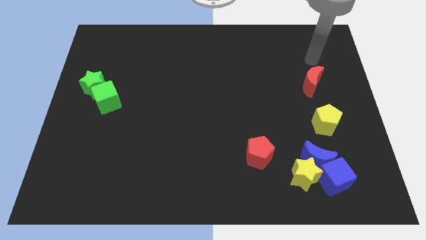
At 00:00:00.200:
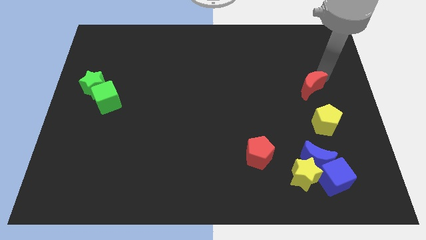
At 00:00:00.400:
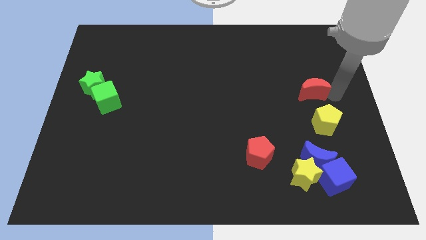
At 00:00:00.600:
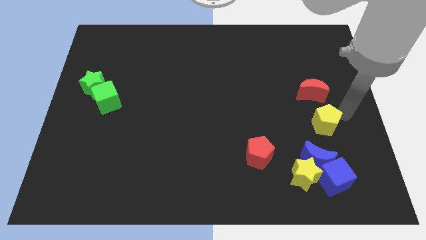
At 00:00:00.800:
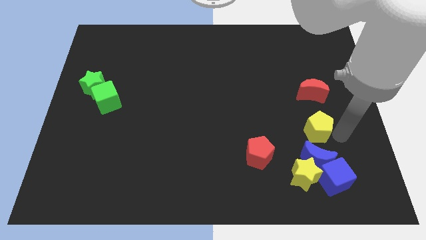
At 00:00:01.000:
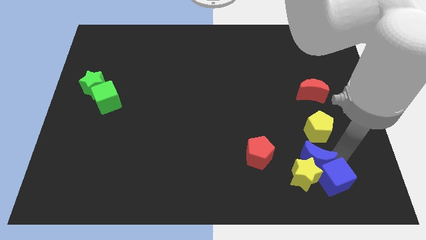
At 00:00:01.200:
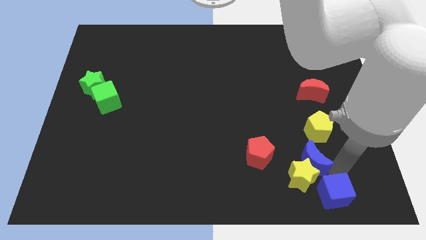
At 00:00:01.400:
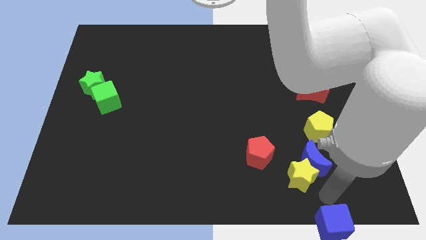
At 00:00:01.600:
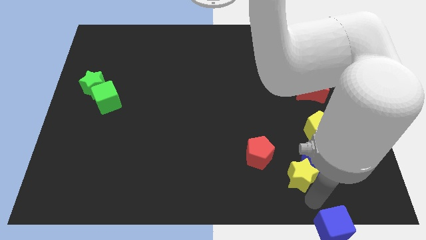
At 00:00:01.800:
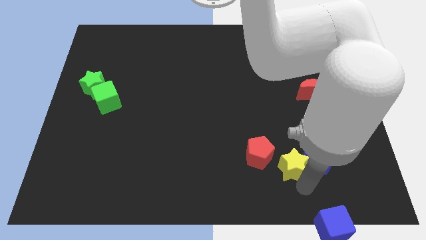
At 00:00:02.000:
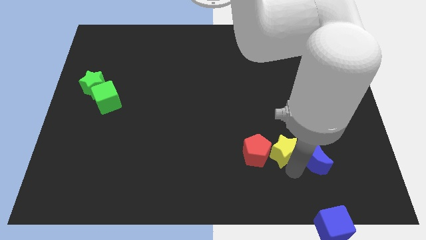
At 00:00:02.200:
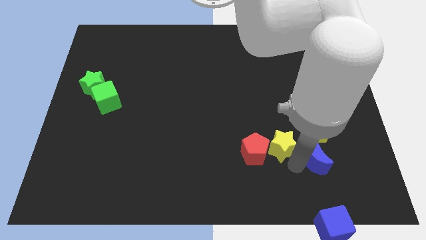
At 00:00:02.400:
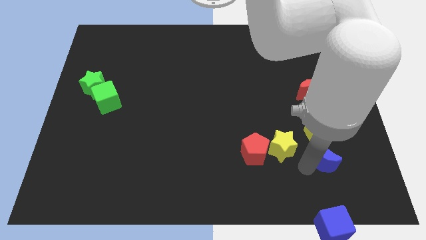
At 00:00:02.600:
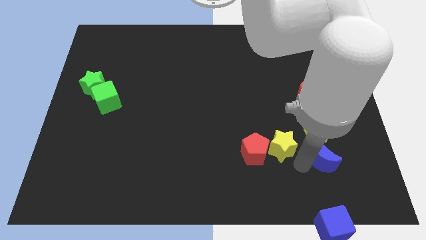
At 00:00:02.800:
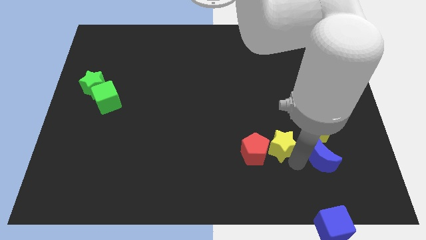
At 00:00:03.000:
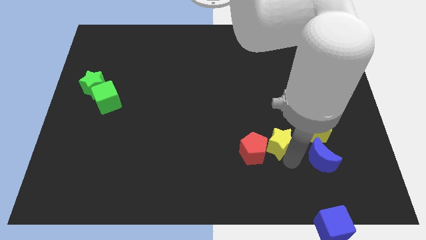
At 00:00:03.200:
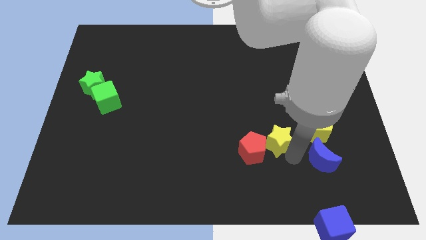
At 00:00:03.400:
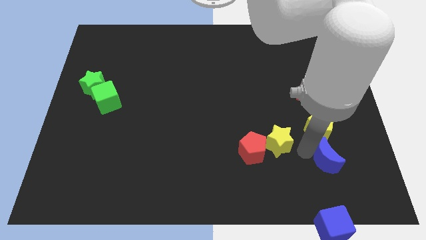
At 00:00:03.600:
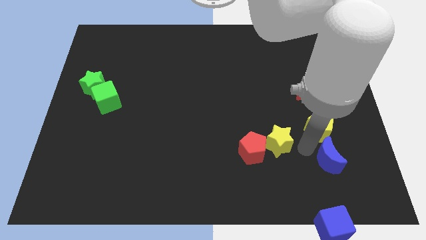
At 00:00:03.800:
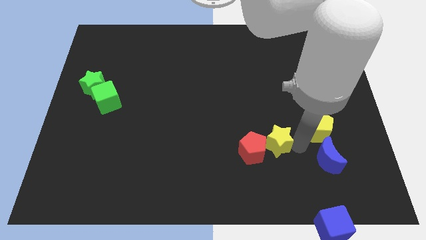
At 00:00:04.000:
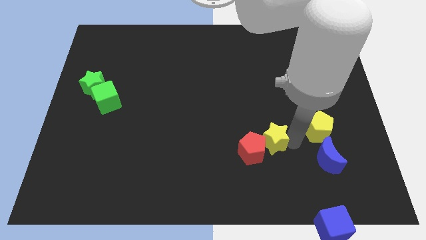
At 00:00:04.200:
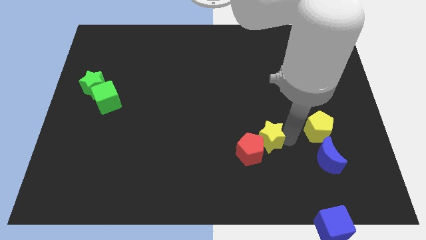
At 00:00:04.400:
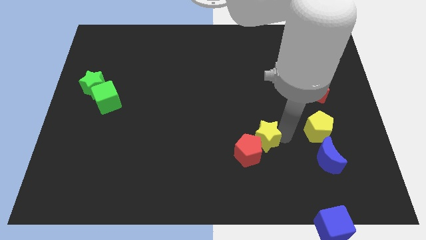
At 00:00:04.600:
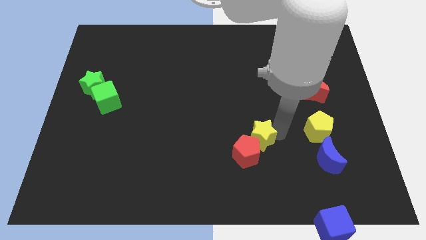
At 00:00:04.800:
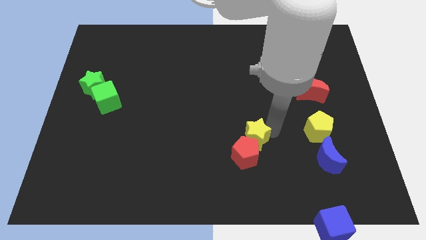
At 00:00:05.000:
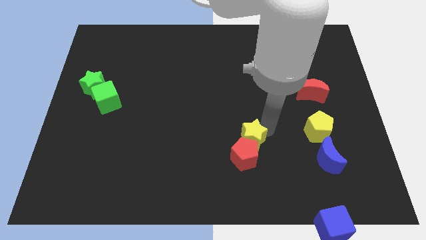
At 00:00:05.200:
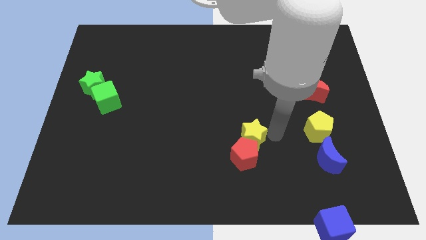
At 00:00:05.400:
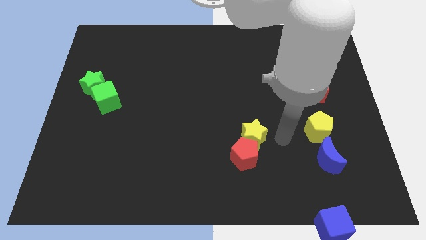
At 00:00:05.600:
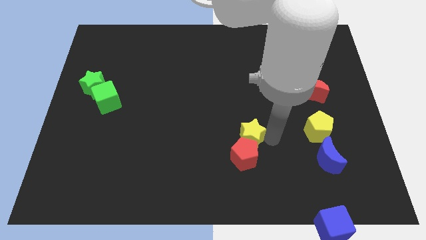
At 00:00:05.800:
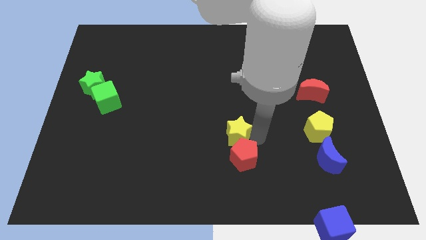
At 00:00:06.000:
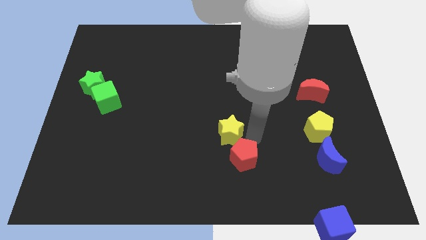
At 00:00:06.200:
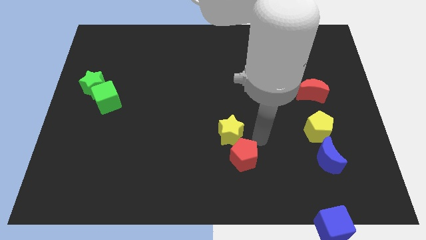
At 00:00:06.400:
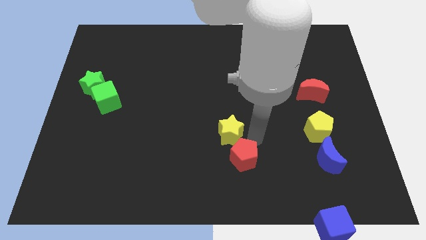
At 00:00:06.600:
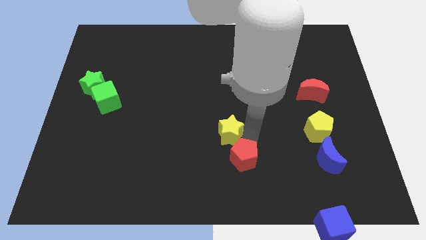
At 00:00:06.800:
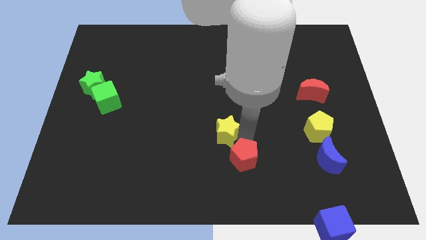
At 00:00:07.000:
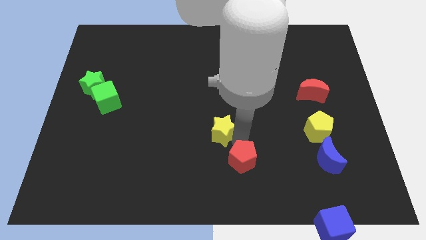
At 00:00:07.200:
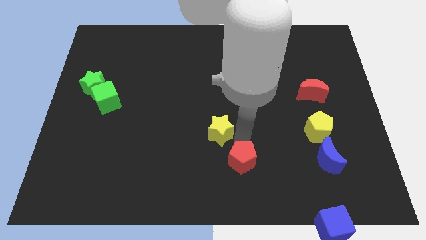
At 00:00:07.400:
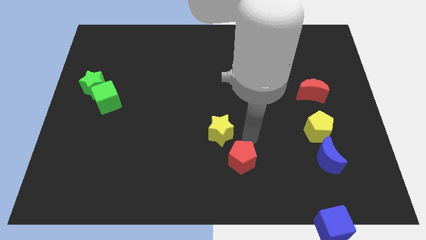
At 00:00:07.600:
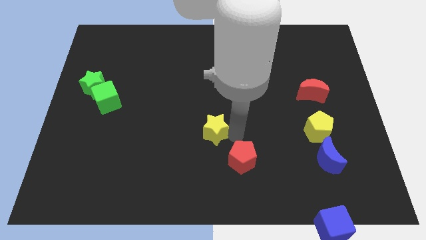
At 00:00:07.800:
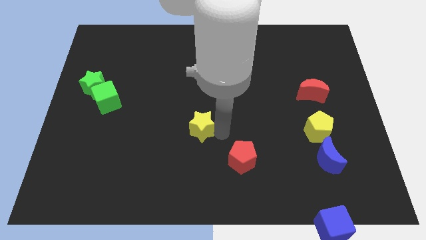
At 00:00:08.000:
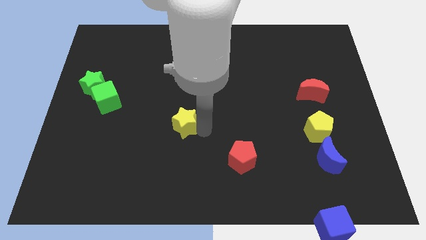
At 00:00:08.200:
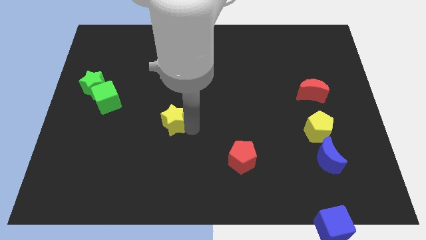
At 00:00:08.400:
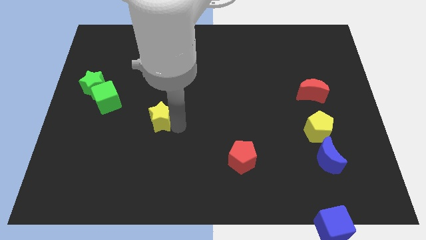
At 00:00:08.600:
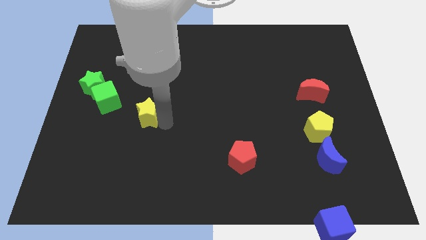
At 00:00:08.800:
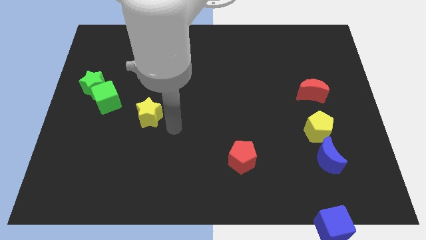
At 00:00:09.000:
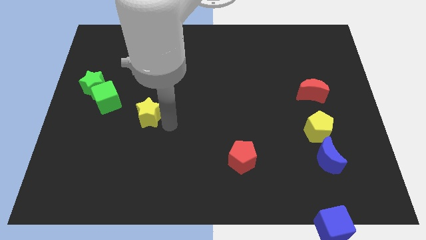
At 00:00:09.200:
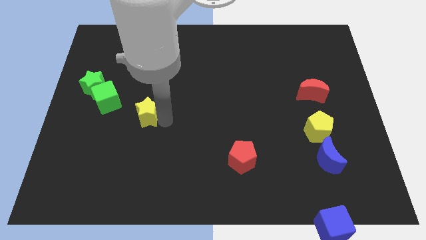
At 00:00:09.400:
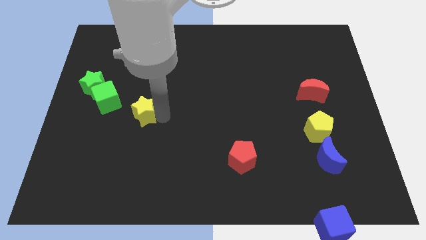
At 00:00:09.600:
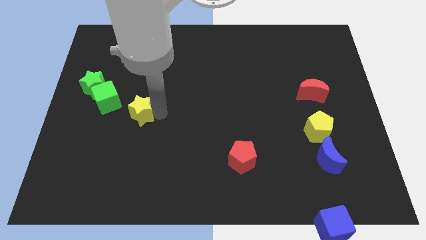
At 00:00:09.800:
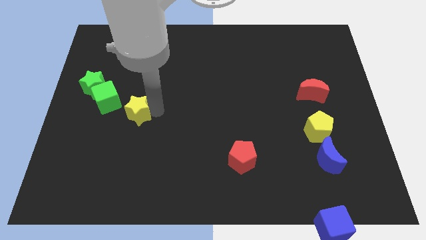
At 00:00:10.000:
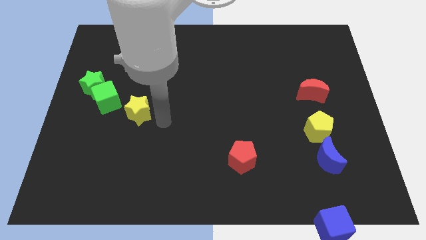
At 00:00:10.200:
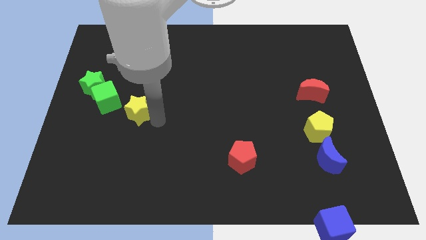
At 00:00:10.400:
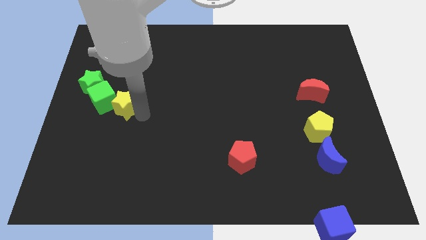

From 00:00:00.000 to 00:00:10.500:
move the yellow star next to the green cube

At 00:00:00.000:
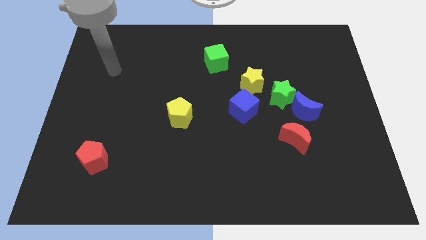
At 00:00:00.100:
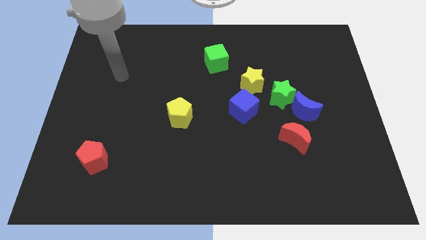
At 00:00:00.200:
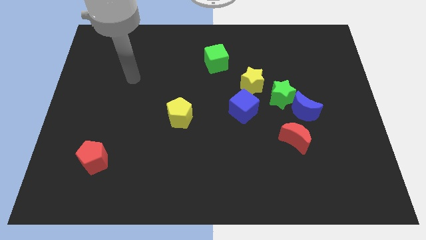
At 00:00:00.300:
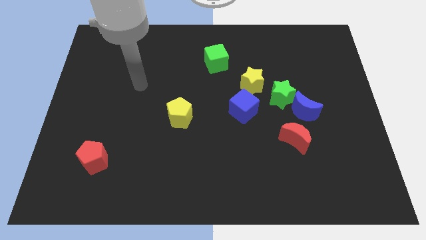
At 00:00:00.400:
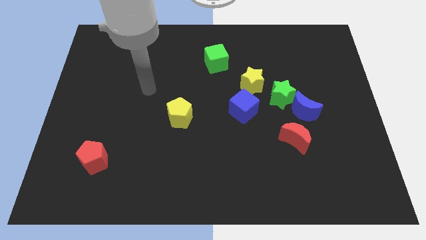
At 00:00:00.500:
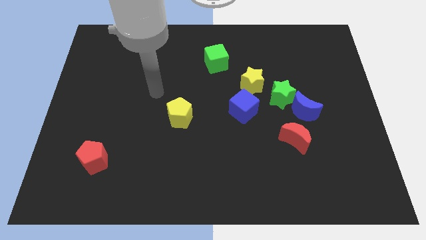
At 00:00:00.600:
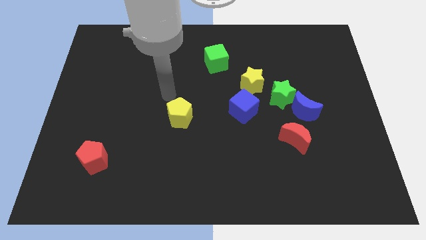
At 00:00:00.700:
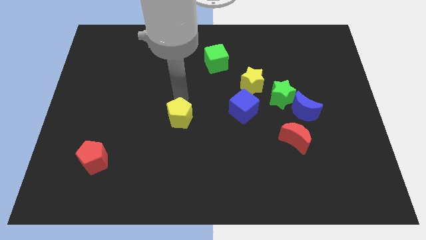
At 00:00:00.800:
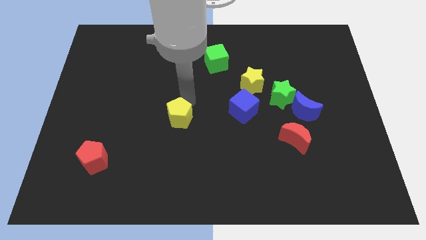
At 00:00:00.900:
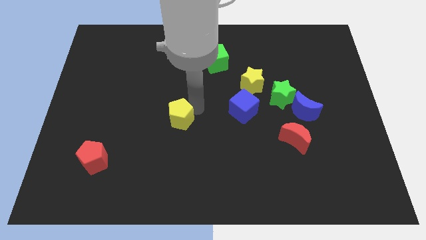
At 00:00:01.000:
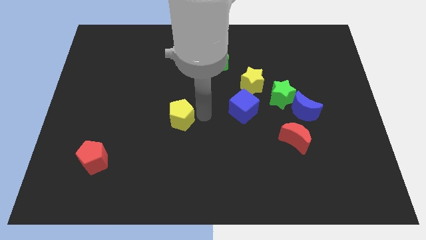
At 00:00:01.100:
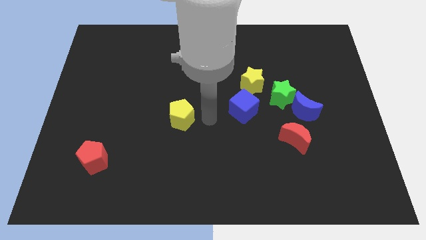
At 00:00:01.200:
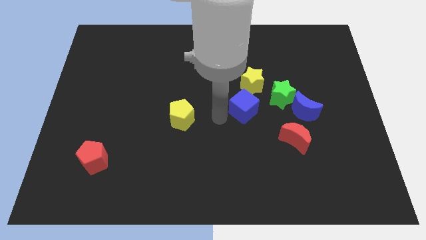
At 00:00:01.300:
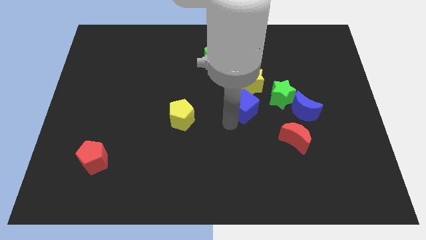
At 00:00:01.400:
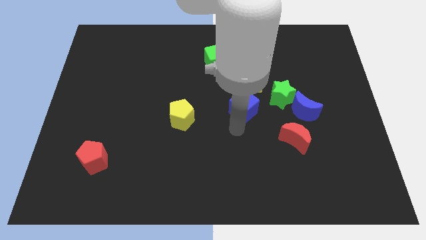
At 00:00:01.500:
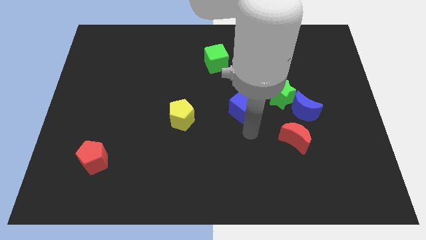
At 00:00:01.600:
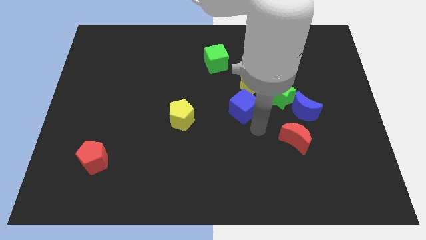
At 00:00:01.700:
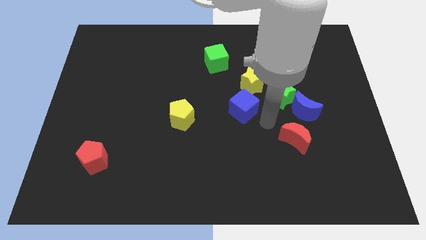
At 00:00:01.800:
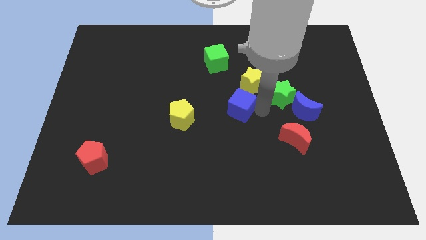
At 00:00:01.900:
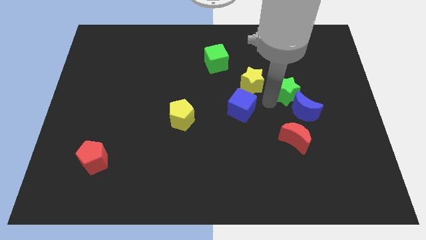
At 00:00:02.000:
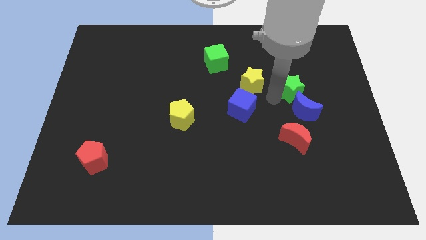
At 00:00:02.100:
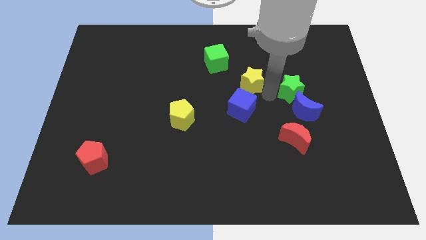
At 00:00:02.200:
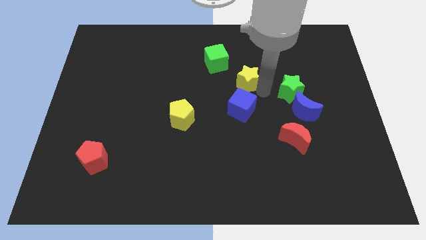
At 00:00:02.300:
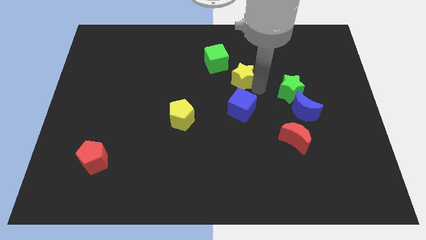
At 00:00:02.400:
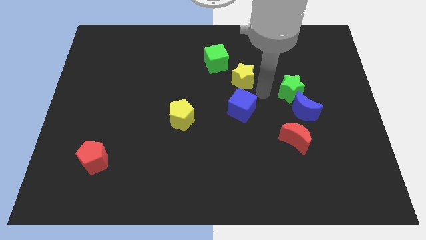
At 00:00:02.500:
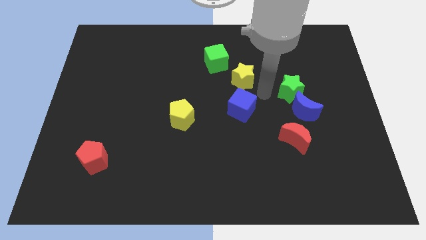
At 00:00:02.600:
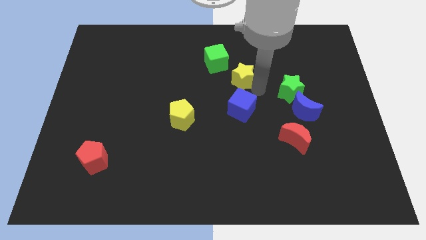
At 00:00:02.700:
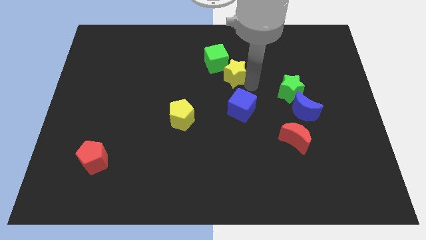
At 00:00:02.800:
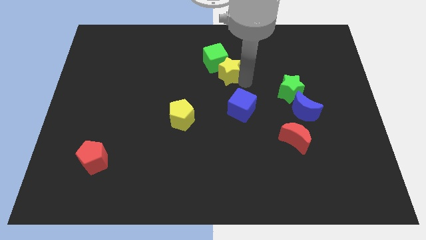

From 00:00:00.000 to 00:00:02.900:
push the yellow star to the green cube
